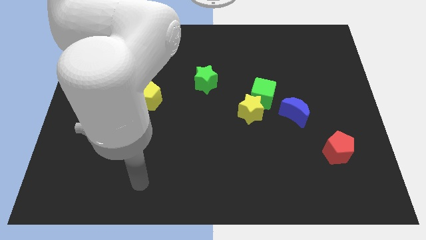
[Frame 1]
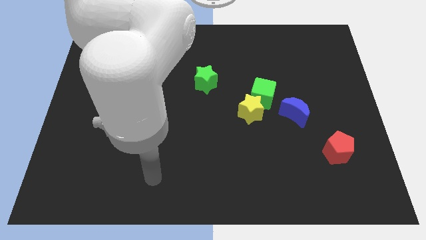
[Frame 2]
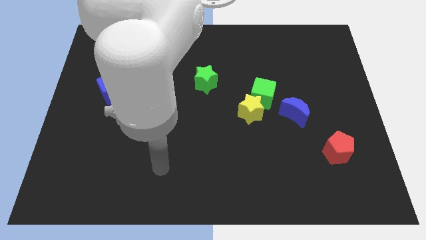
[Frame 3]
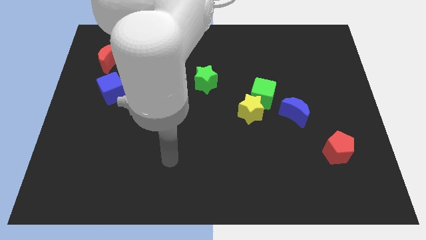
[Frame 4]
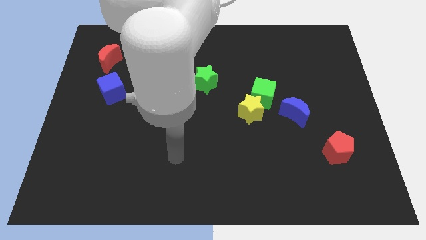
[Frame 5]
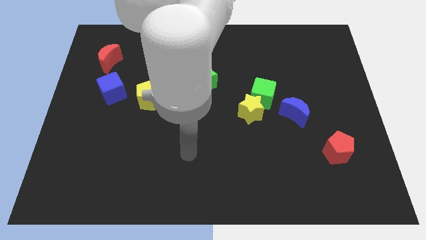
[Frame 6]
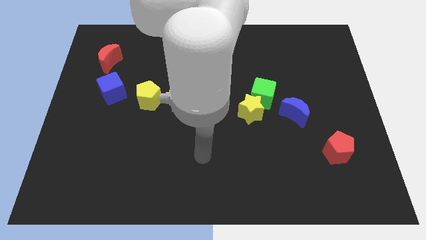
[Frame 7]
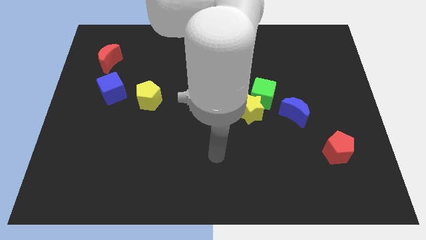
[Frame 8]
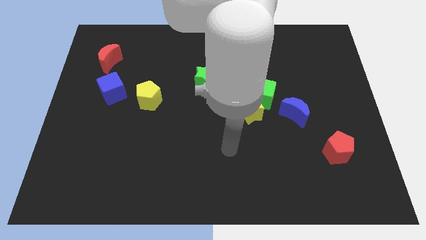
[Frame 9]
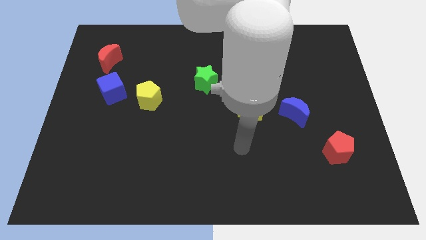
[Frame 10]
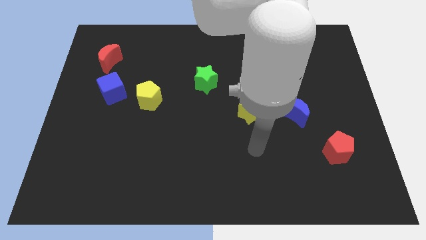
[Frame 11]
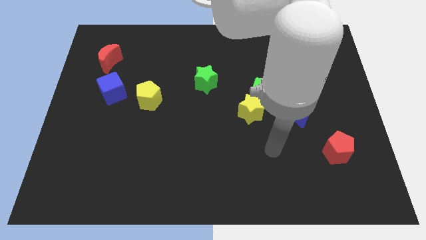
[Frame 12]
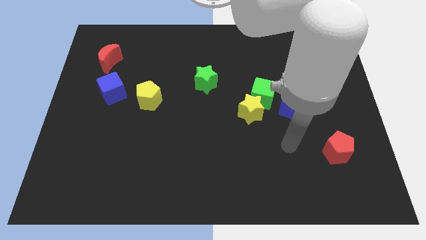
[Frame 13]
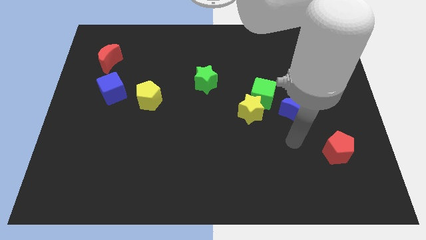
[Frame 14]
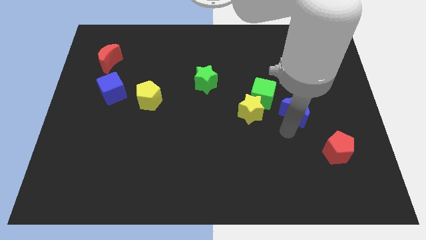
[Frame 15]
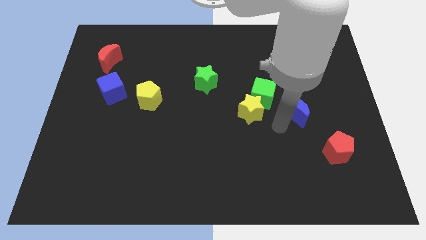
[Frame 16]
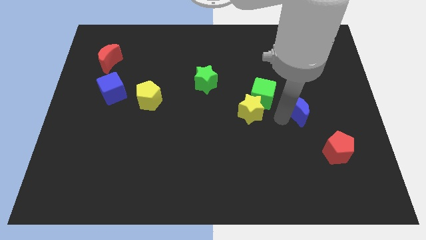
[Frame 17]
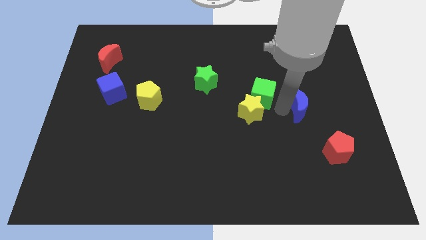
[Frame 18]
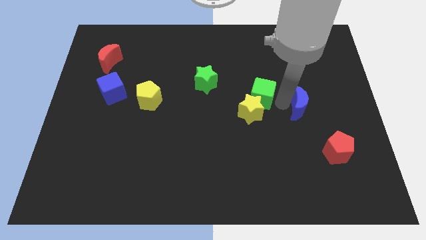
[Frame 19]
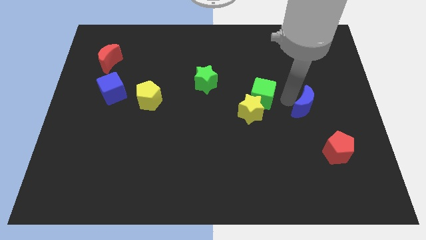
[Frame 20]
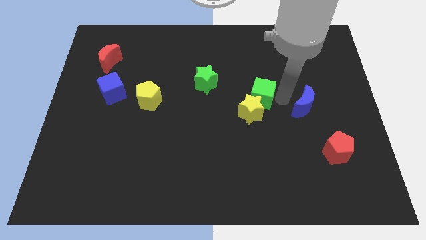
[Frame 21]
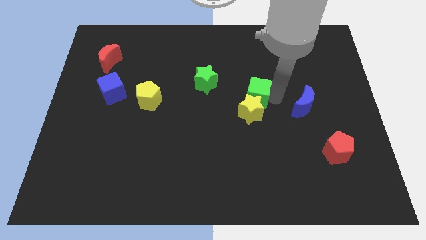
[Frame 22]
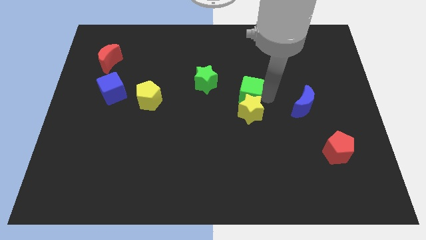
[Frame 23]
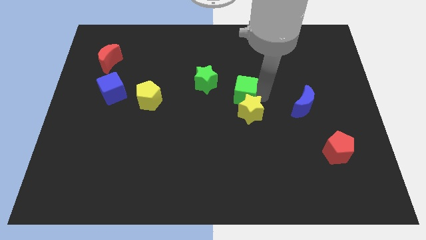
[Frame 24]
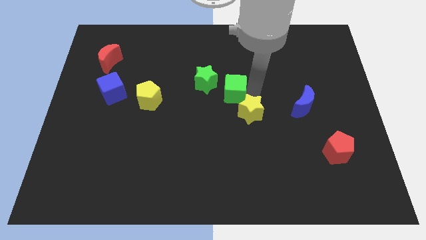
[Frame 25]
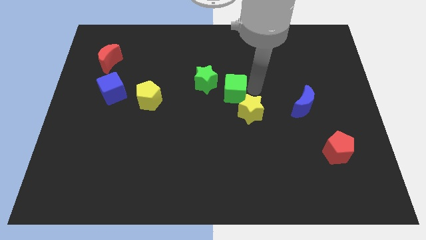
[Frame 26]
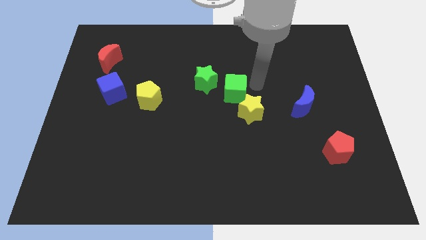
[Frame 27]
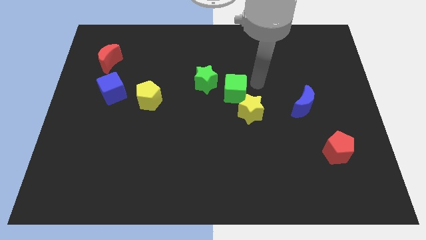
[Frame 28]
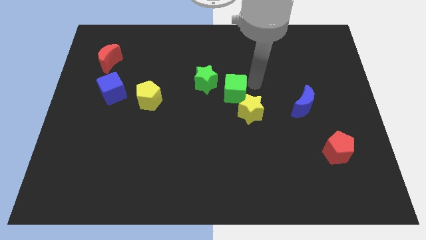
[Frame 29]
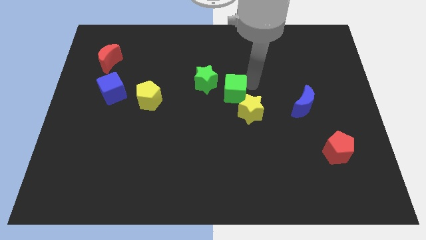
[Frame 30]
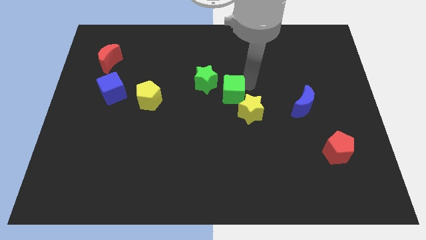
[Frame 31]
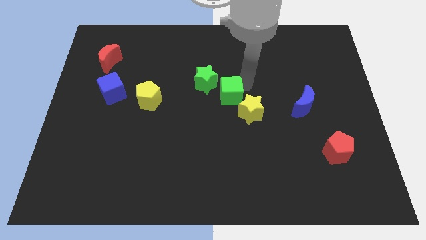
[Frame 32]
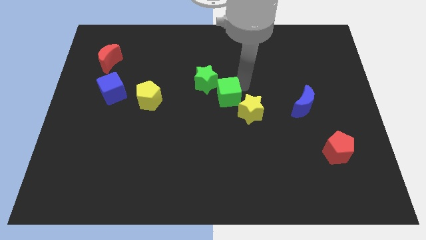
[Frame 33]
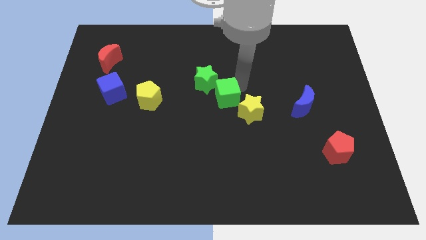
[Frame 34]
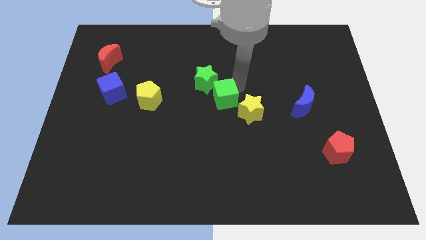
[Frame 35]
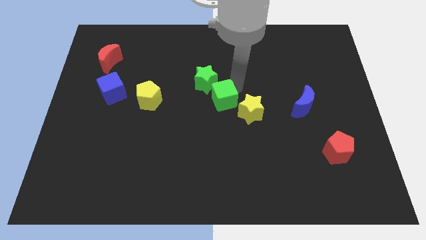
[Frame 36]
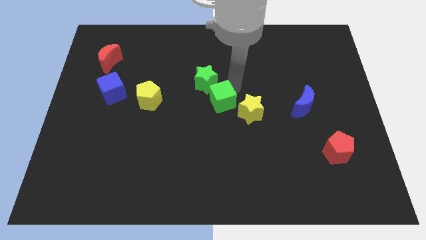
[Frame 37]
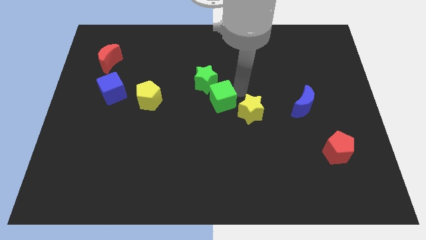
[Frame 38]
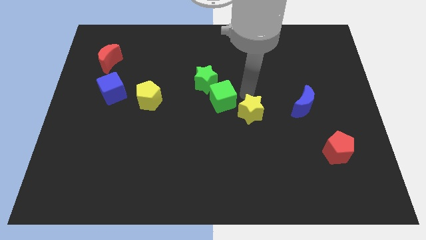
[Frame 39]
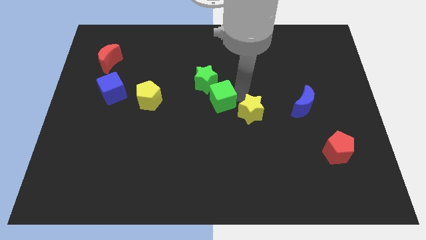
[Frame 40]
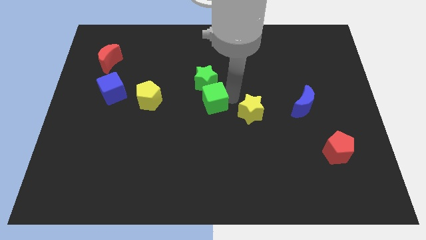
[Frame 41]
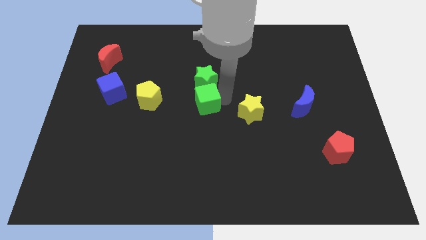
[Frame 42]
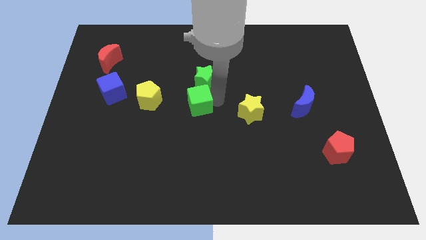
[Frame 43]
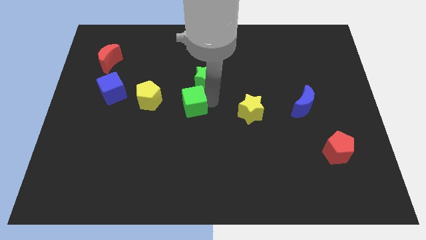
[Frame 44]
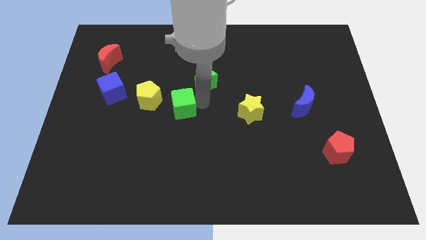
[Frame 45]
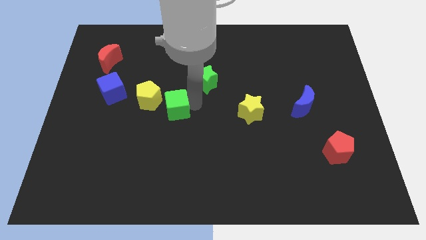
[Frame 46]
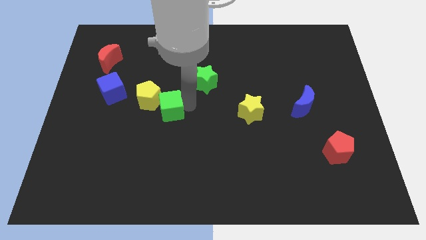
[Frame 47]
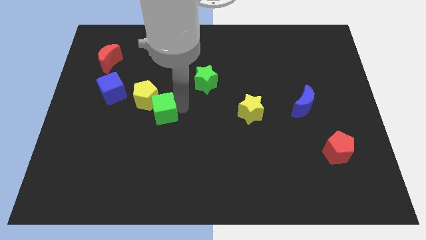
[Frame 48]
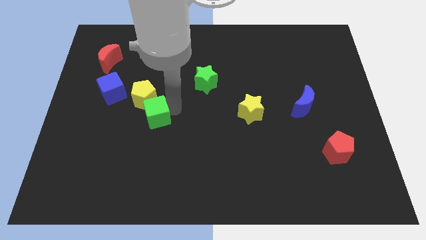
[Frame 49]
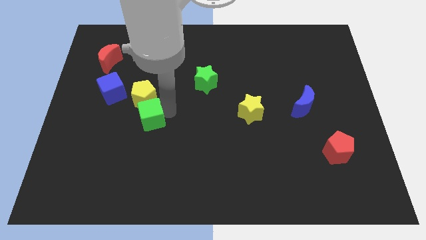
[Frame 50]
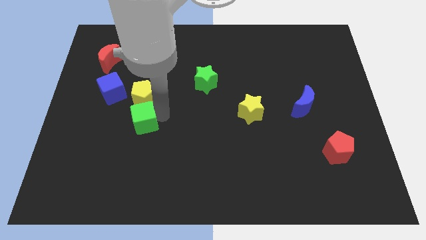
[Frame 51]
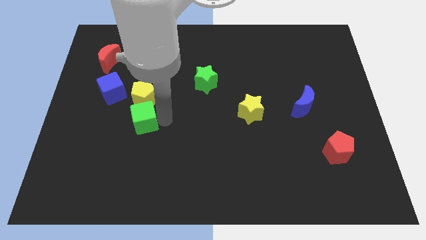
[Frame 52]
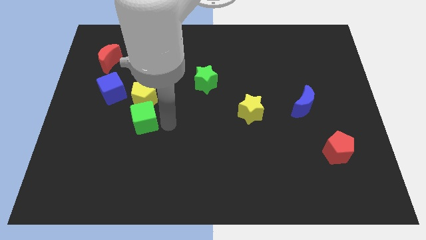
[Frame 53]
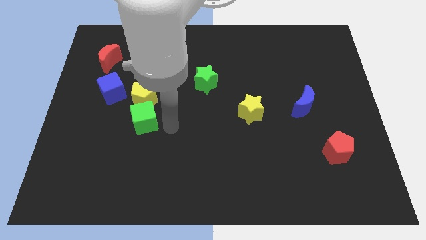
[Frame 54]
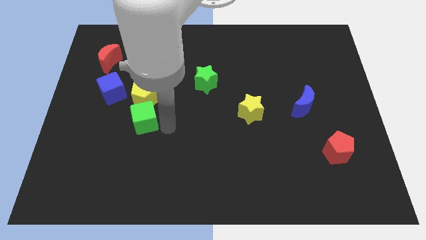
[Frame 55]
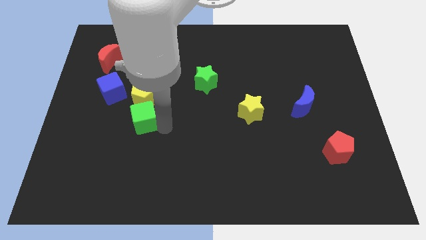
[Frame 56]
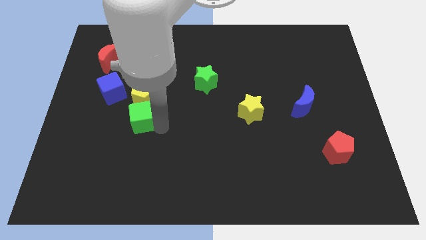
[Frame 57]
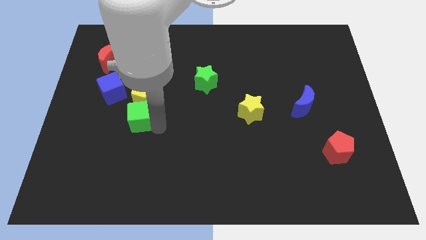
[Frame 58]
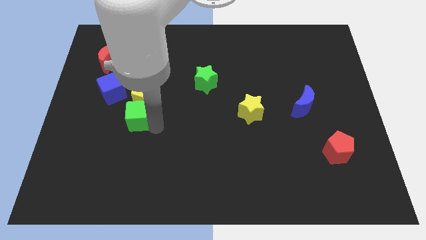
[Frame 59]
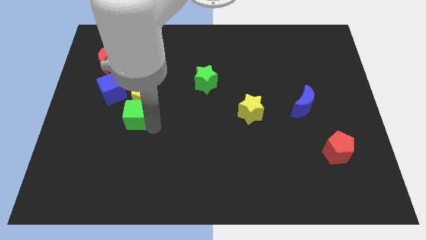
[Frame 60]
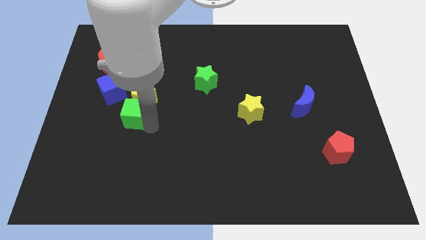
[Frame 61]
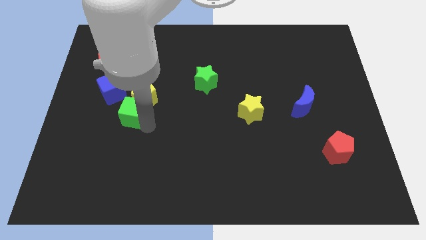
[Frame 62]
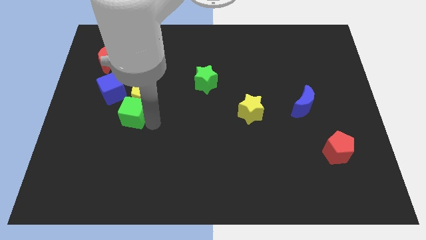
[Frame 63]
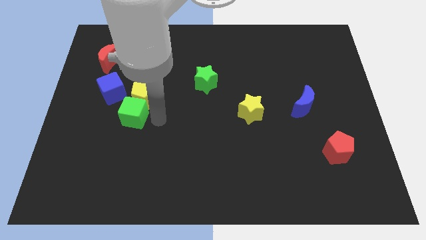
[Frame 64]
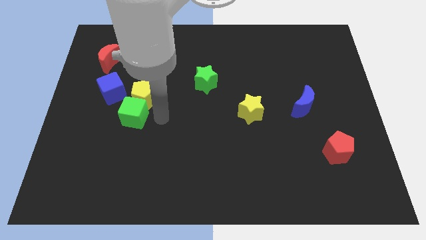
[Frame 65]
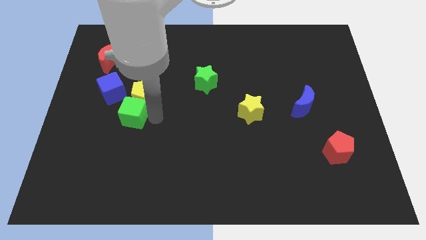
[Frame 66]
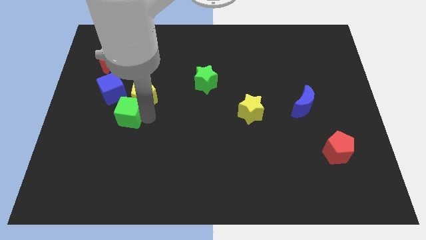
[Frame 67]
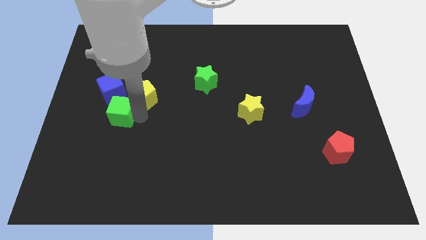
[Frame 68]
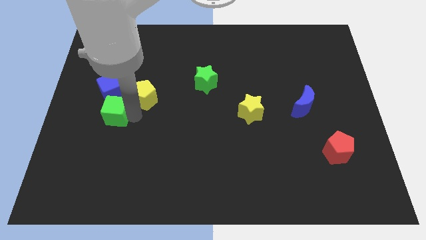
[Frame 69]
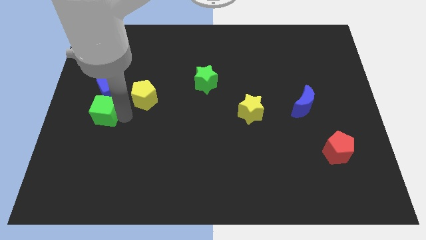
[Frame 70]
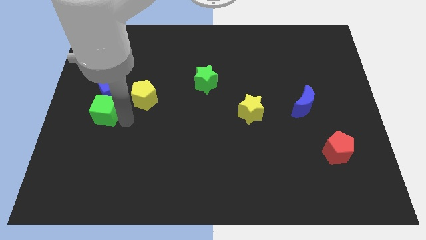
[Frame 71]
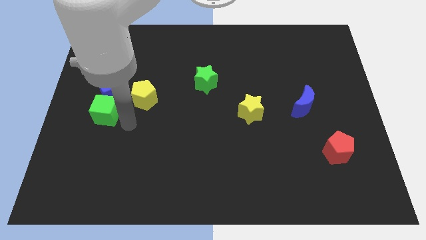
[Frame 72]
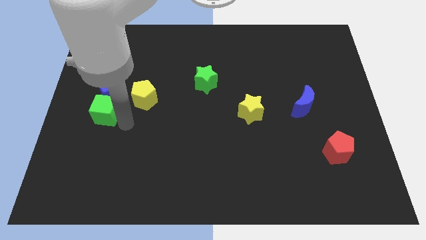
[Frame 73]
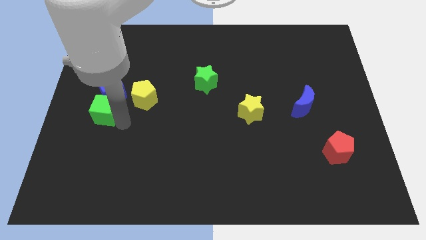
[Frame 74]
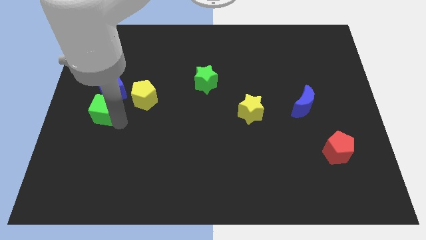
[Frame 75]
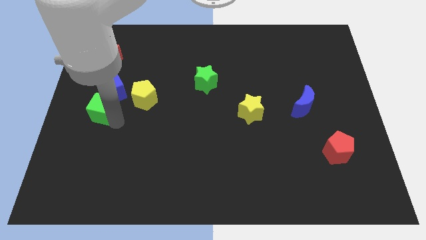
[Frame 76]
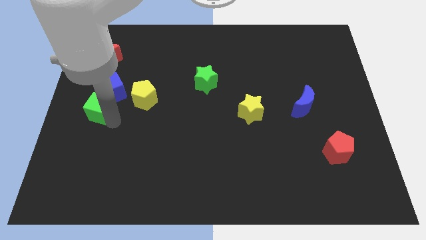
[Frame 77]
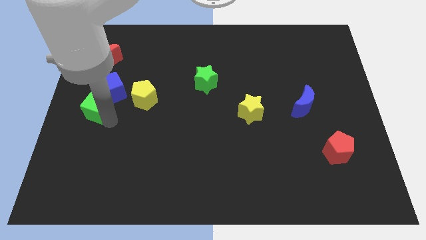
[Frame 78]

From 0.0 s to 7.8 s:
push the green cube below the red moon
